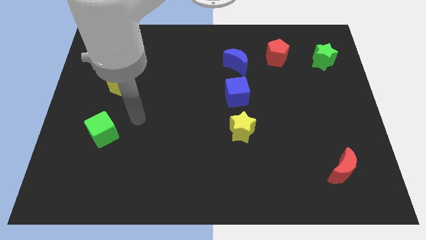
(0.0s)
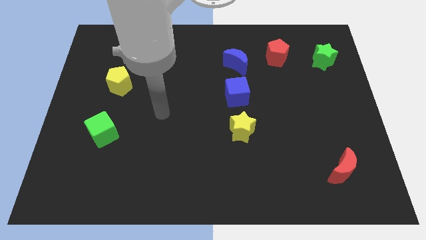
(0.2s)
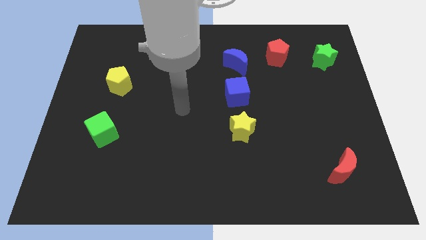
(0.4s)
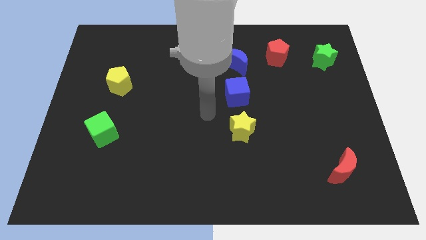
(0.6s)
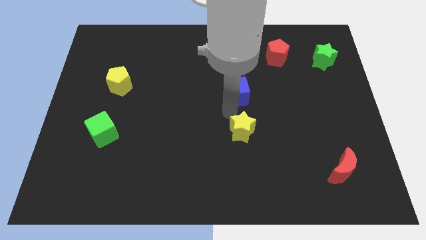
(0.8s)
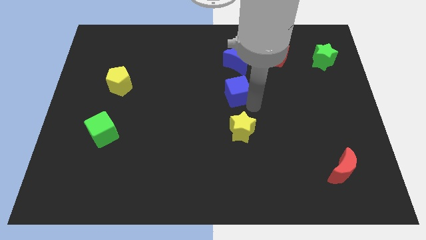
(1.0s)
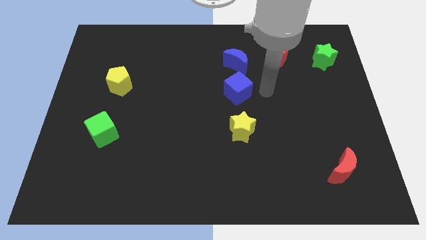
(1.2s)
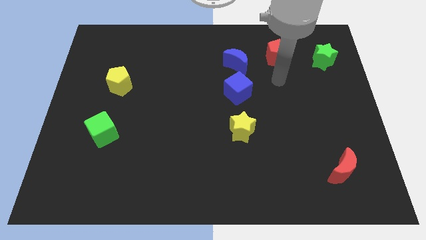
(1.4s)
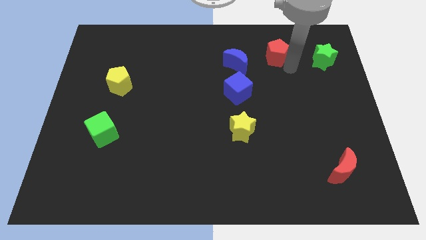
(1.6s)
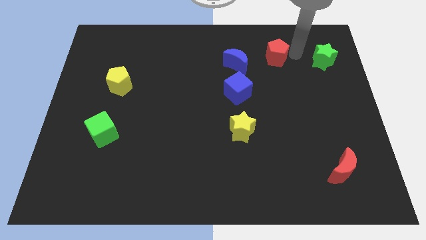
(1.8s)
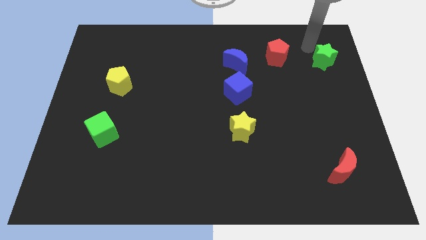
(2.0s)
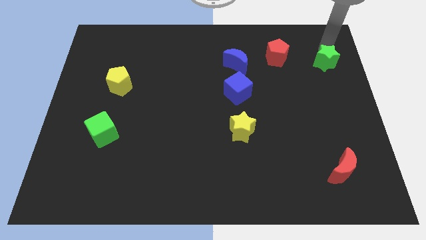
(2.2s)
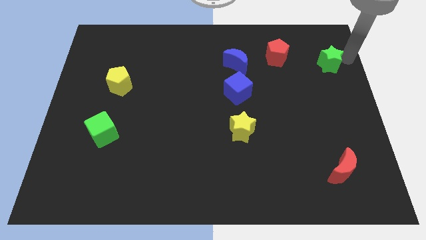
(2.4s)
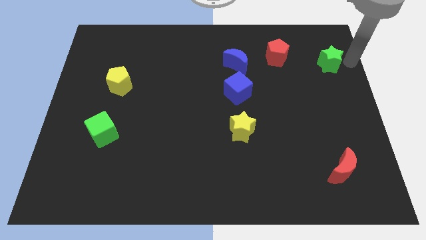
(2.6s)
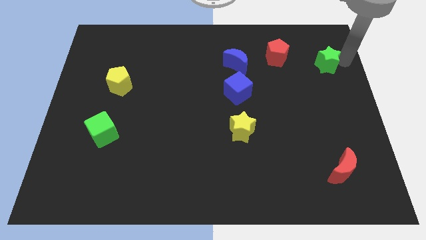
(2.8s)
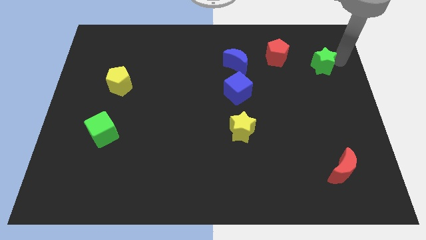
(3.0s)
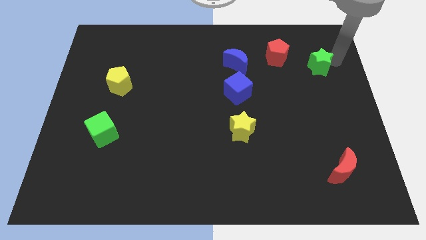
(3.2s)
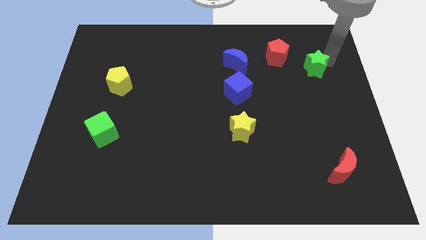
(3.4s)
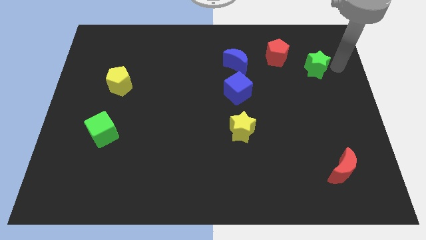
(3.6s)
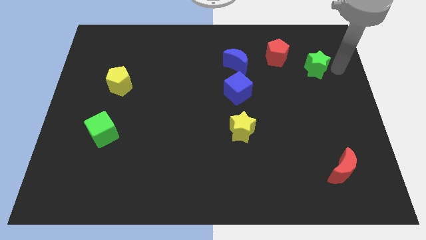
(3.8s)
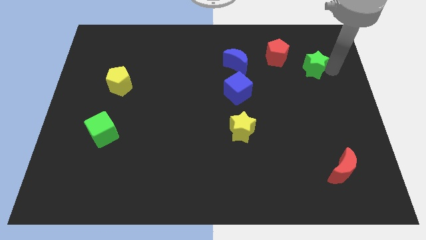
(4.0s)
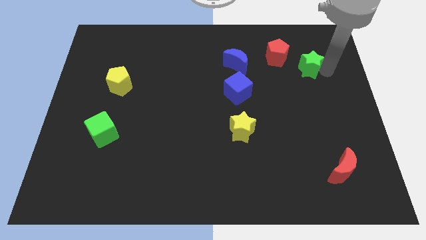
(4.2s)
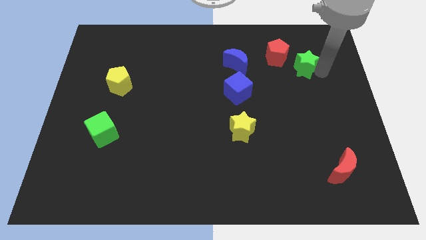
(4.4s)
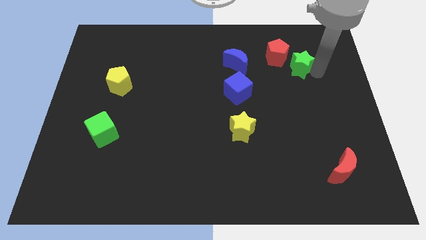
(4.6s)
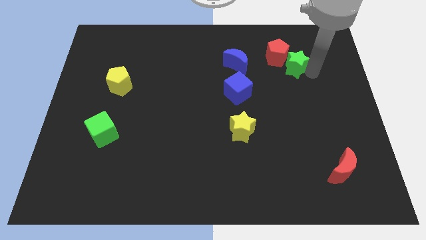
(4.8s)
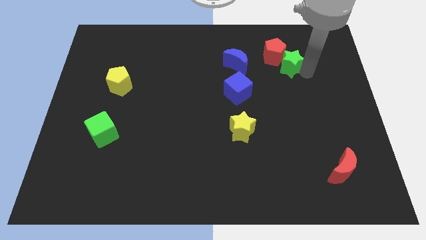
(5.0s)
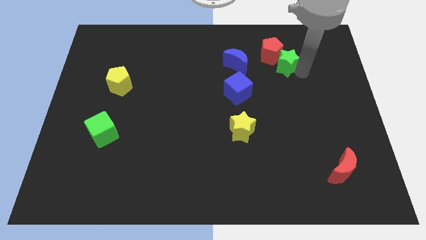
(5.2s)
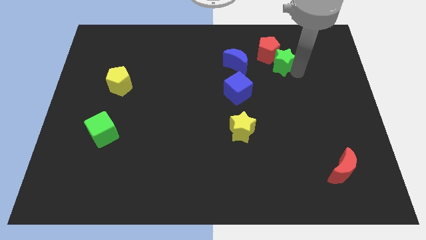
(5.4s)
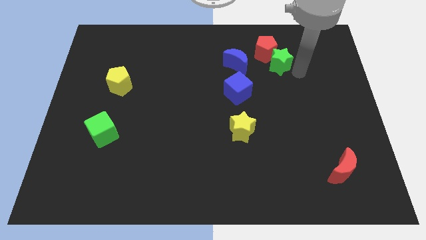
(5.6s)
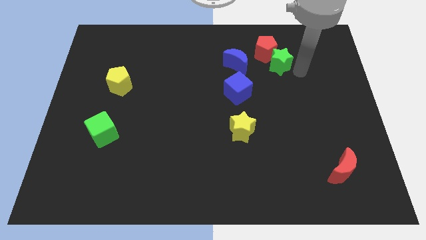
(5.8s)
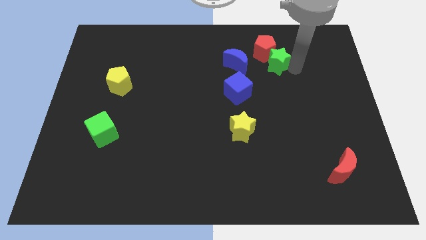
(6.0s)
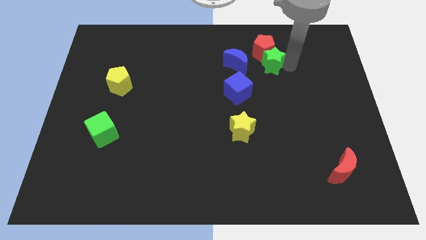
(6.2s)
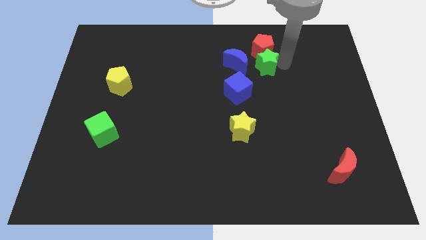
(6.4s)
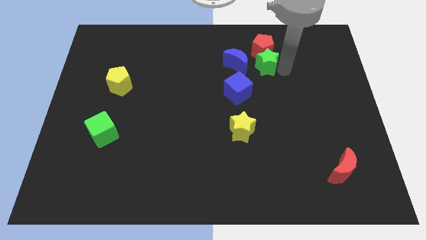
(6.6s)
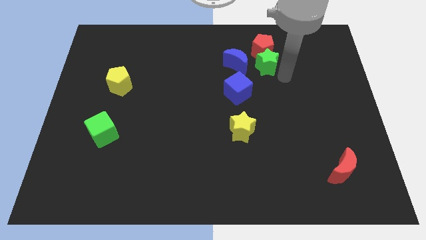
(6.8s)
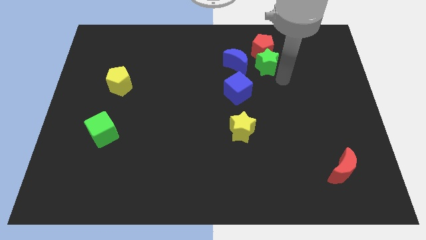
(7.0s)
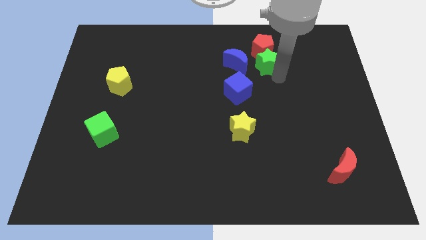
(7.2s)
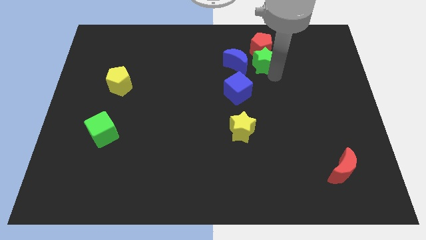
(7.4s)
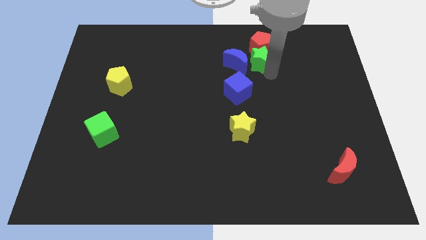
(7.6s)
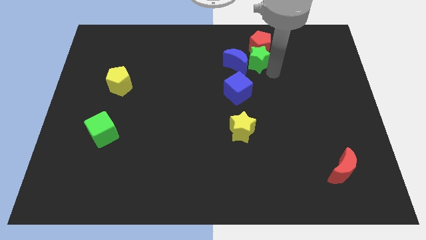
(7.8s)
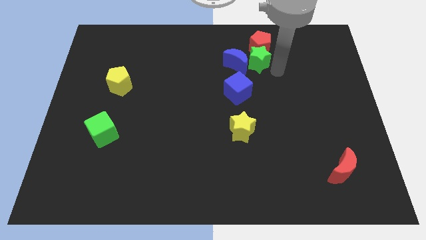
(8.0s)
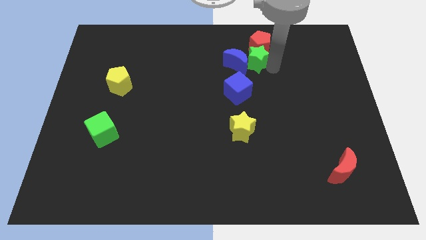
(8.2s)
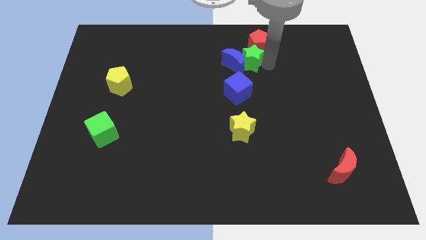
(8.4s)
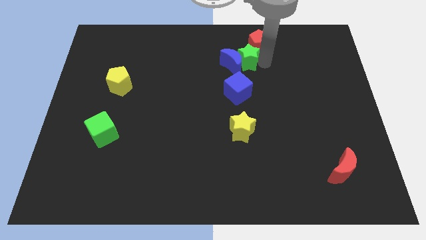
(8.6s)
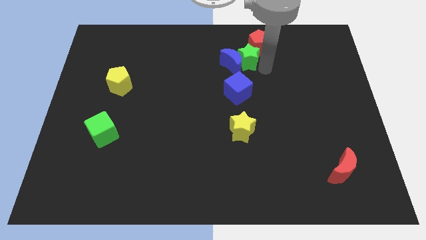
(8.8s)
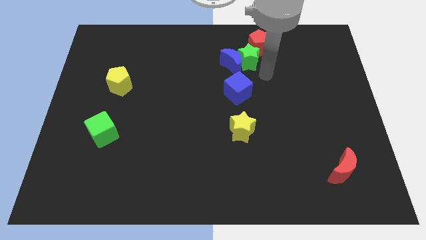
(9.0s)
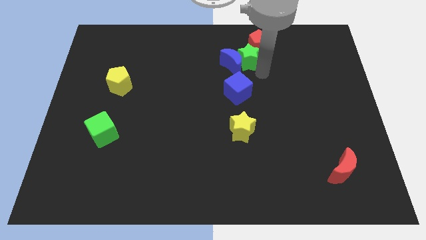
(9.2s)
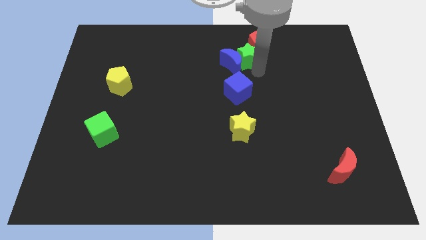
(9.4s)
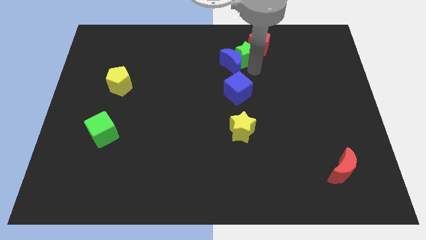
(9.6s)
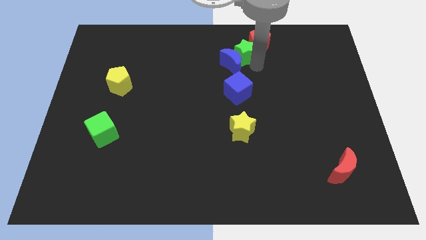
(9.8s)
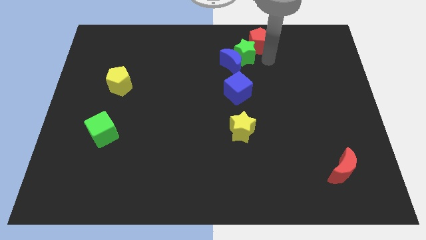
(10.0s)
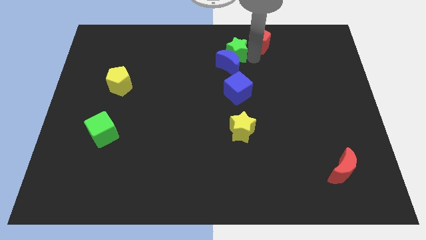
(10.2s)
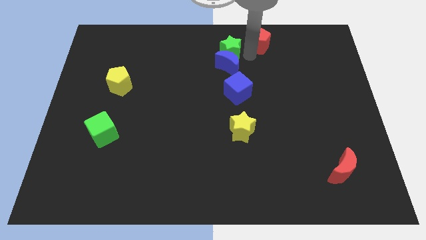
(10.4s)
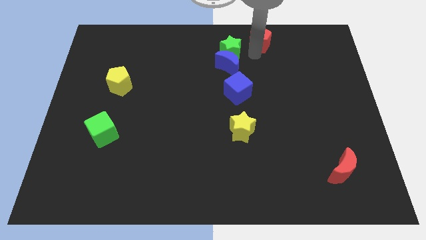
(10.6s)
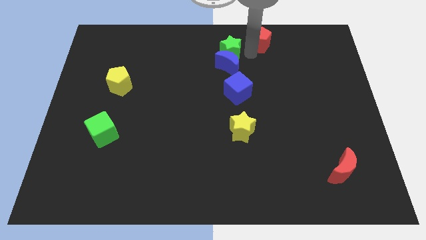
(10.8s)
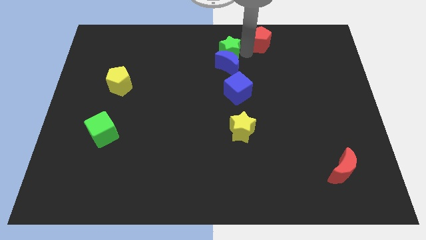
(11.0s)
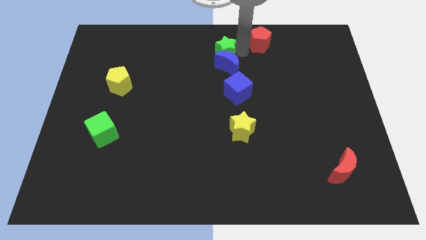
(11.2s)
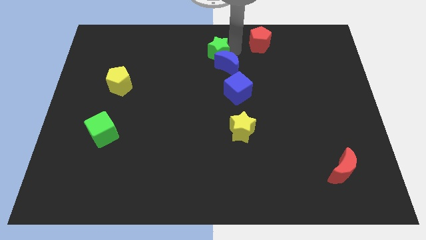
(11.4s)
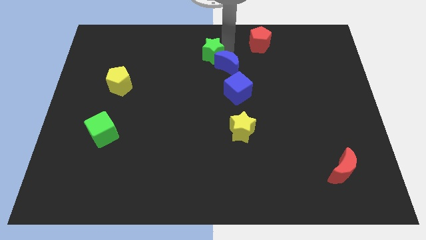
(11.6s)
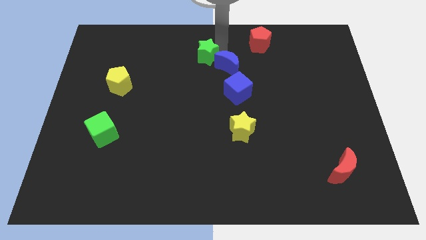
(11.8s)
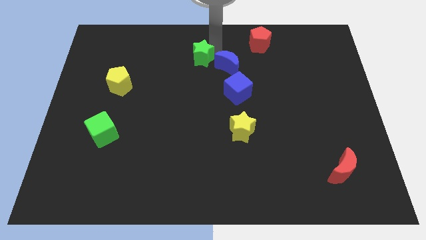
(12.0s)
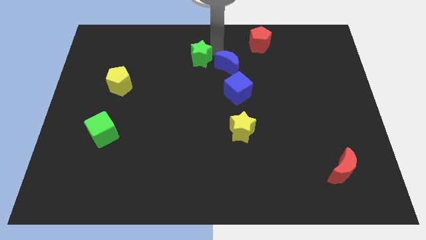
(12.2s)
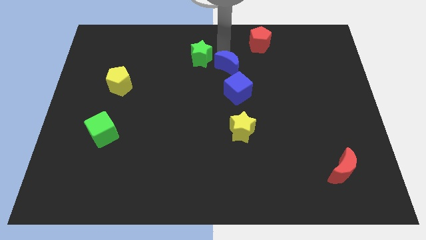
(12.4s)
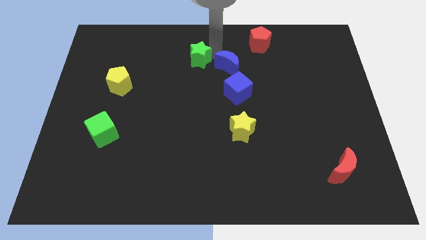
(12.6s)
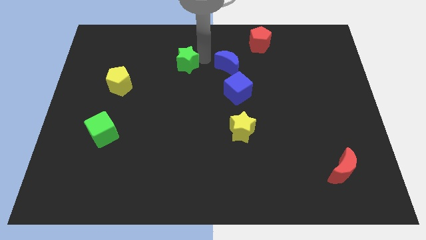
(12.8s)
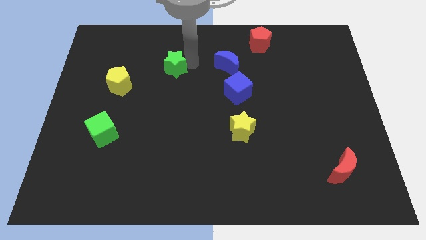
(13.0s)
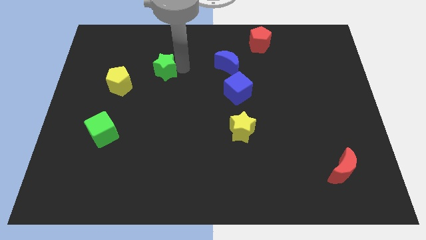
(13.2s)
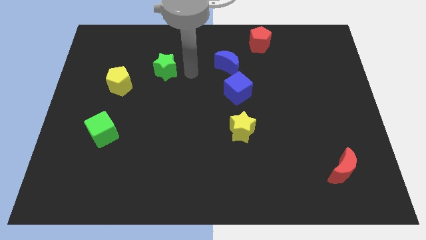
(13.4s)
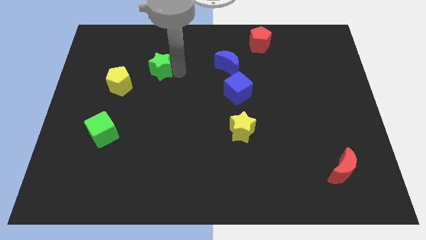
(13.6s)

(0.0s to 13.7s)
put the green star to the top right of the yellow pentagon

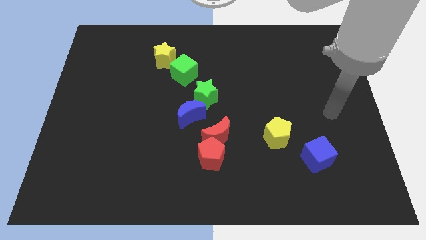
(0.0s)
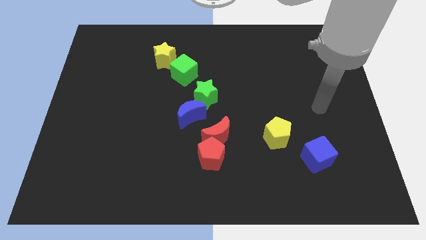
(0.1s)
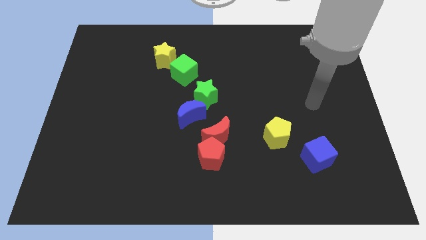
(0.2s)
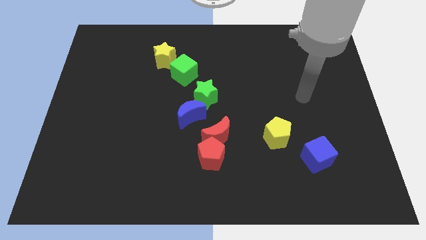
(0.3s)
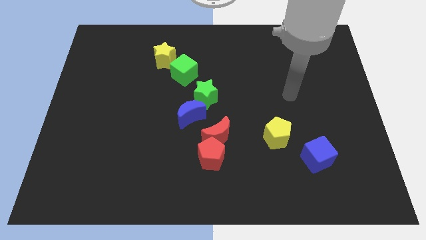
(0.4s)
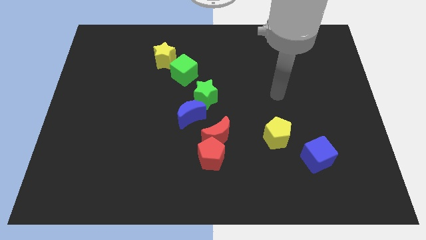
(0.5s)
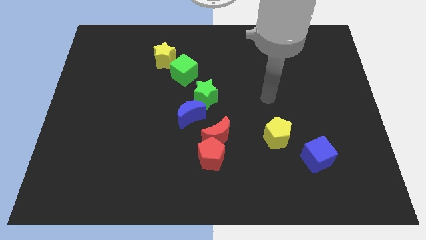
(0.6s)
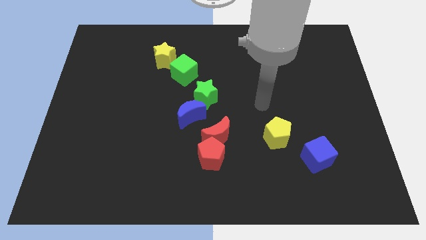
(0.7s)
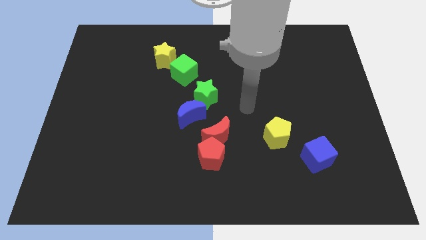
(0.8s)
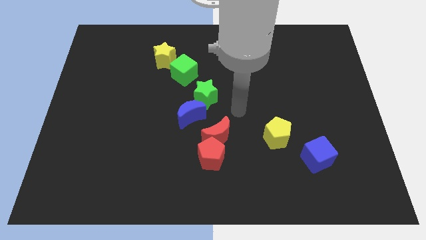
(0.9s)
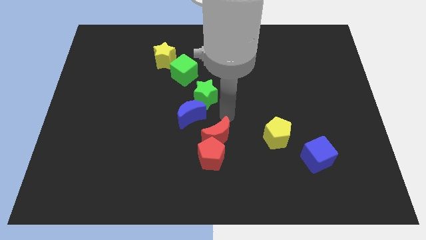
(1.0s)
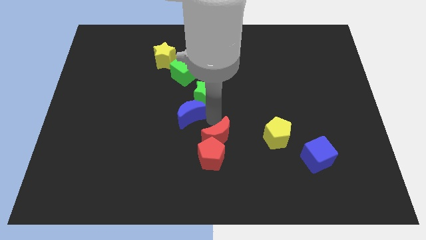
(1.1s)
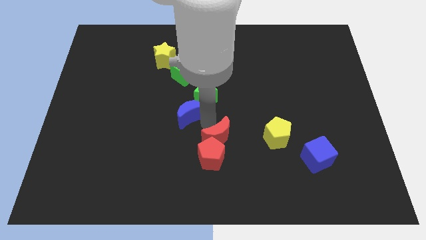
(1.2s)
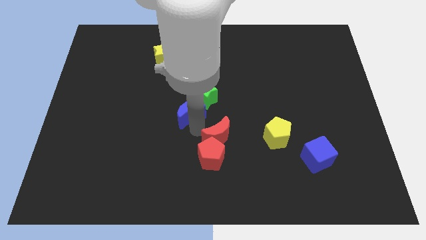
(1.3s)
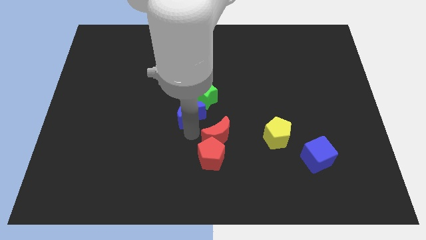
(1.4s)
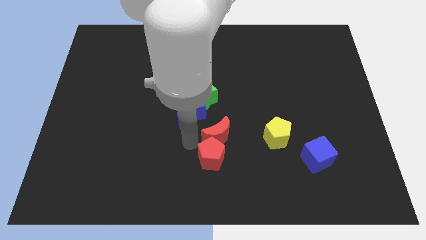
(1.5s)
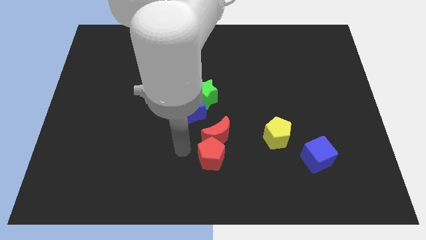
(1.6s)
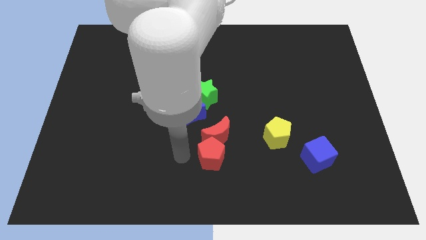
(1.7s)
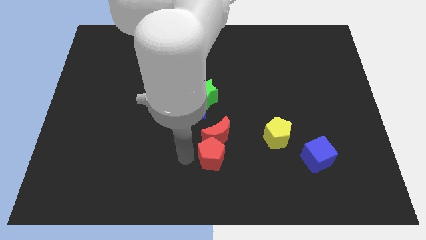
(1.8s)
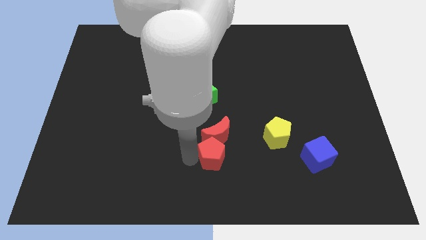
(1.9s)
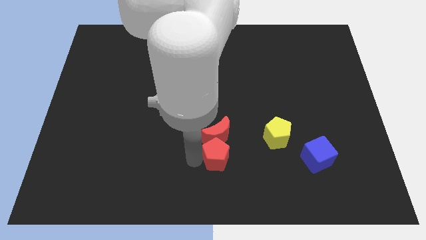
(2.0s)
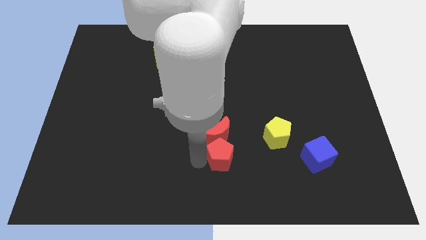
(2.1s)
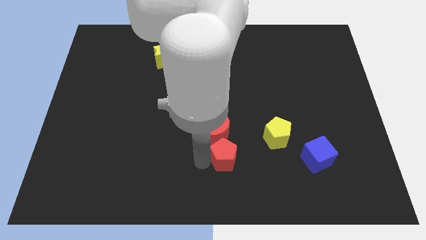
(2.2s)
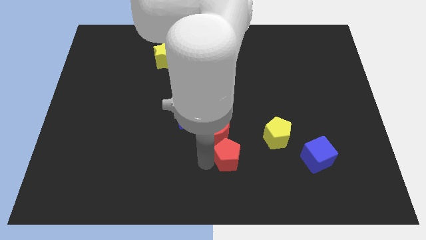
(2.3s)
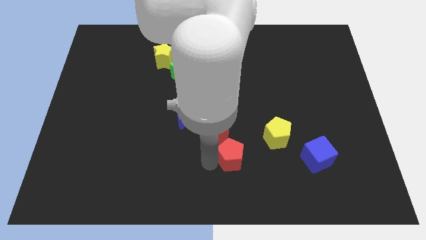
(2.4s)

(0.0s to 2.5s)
move the red pentagon to the bottom left of the yellow pentagon
